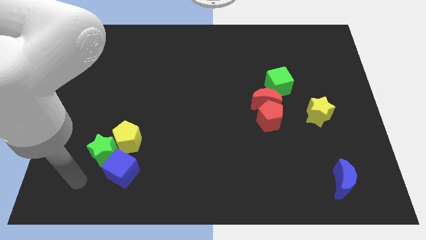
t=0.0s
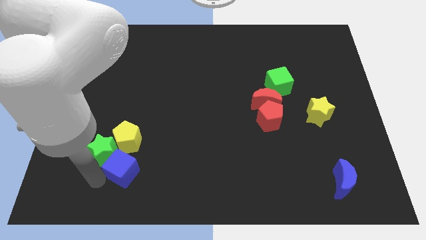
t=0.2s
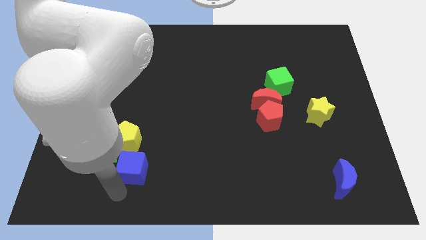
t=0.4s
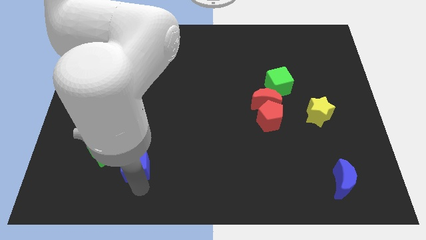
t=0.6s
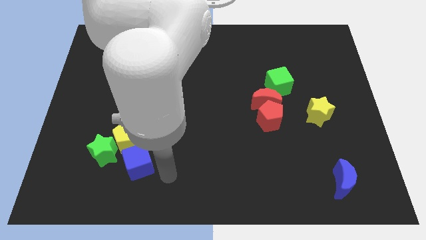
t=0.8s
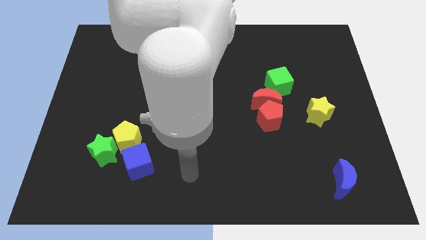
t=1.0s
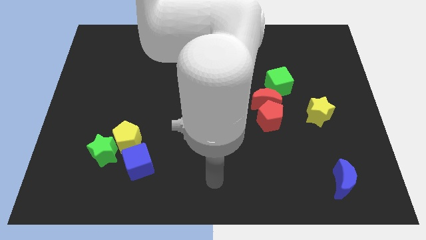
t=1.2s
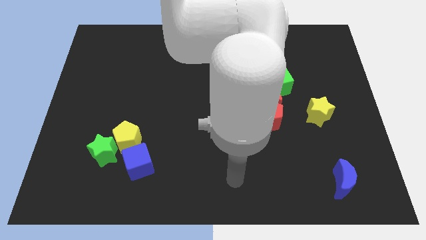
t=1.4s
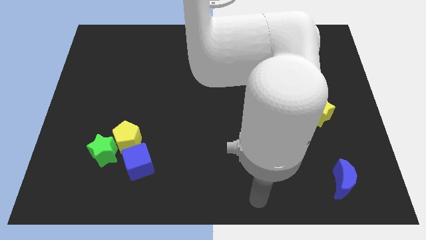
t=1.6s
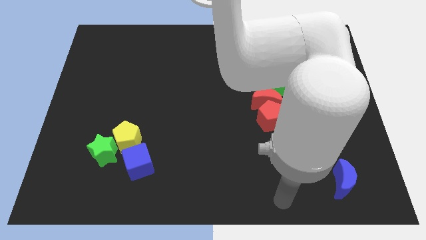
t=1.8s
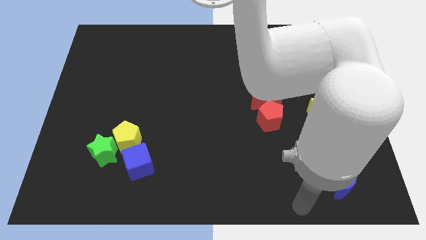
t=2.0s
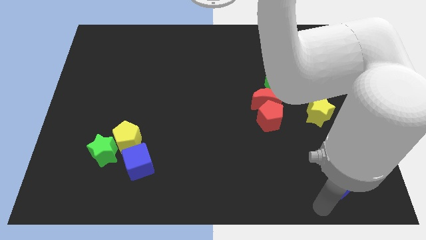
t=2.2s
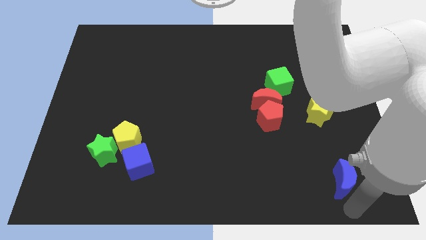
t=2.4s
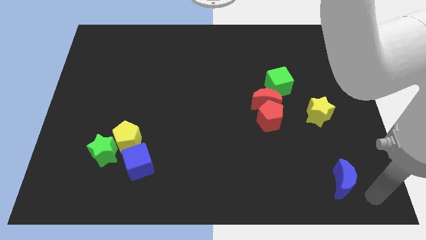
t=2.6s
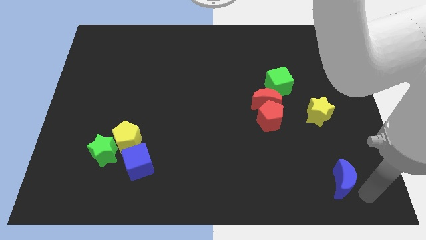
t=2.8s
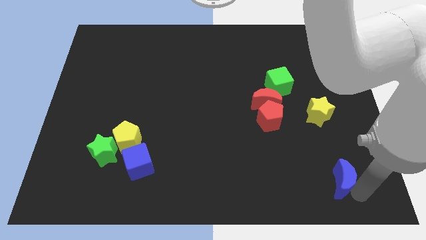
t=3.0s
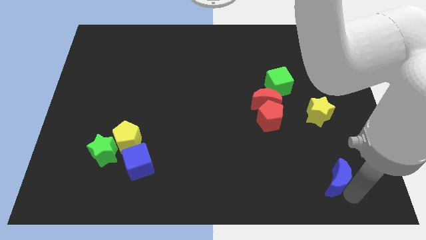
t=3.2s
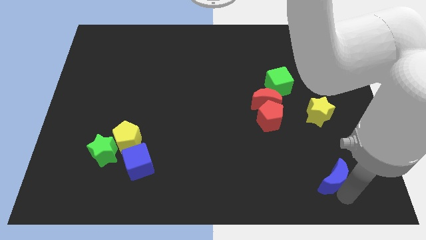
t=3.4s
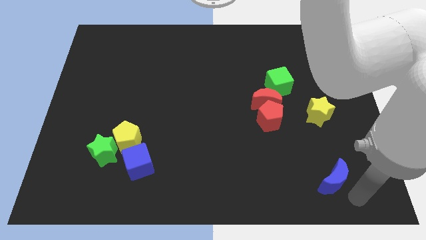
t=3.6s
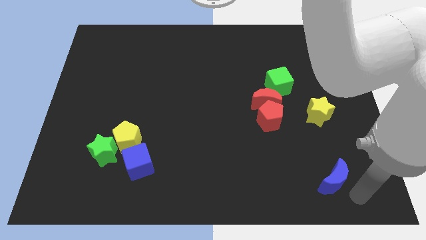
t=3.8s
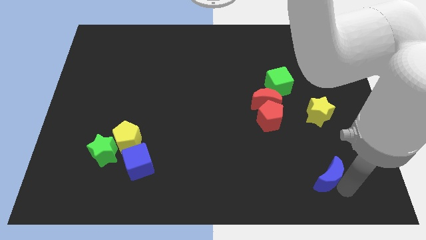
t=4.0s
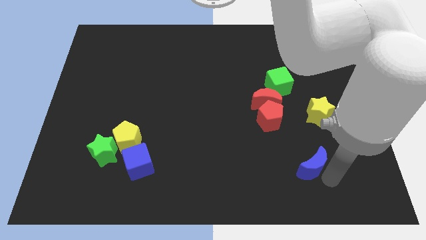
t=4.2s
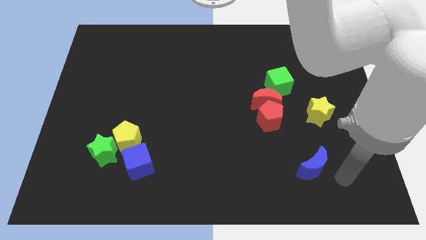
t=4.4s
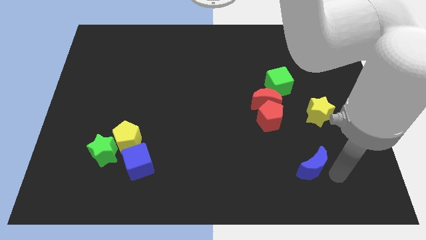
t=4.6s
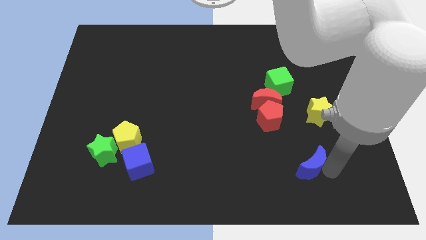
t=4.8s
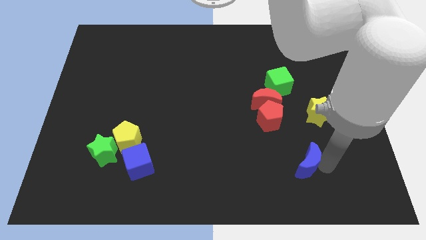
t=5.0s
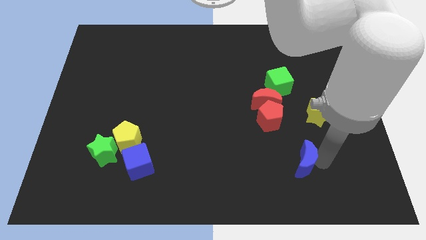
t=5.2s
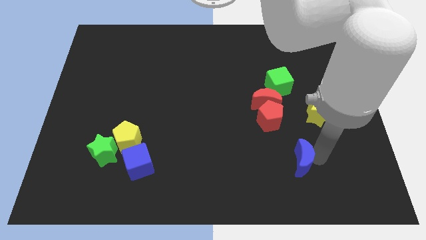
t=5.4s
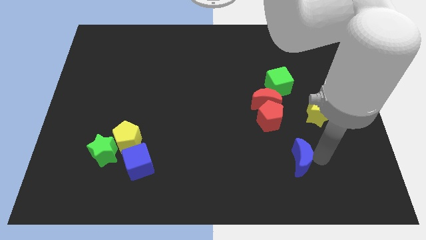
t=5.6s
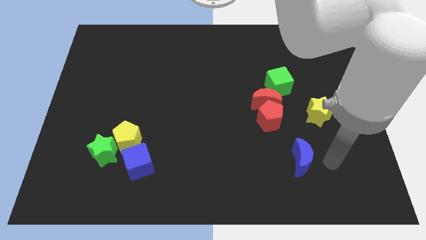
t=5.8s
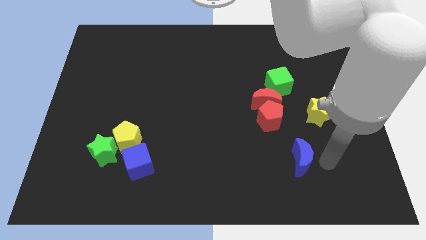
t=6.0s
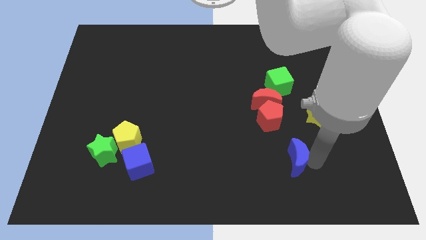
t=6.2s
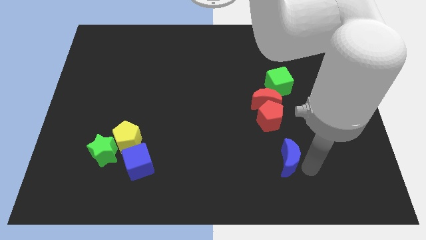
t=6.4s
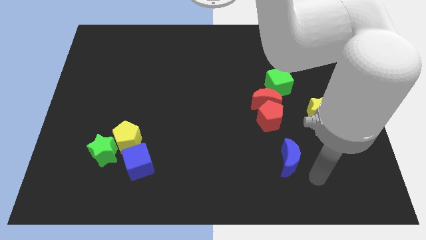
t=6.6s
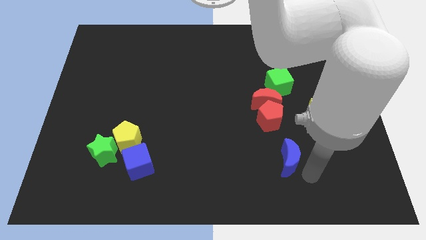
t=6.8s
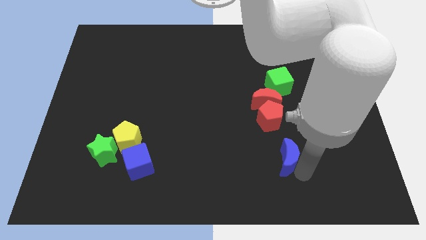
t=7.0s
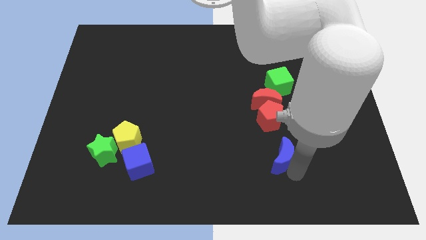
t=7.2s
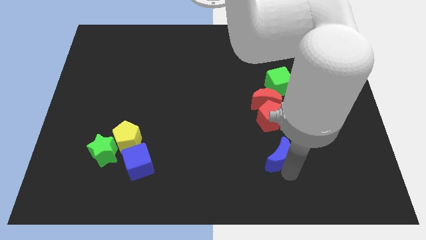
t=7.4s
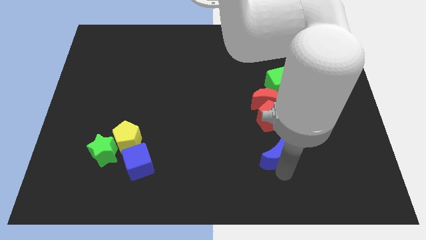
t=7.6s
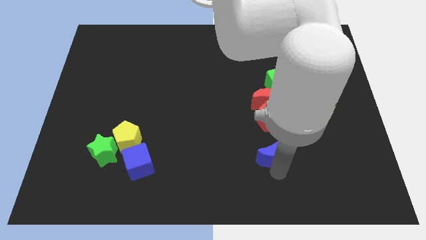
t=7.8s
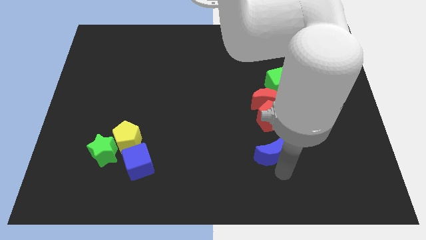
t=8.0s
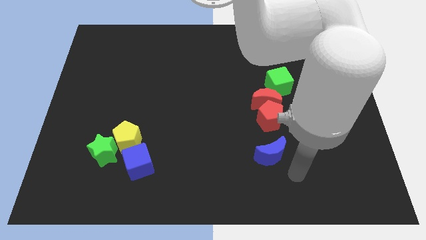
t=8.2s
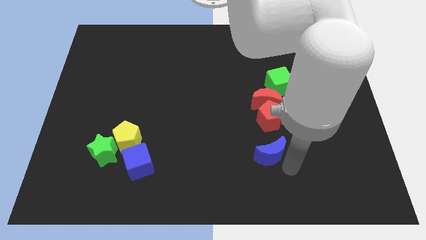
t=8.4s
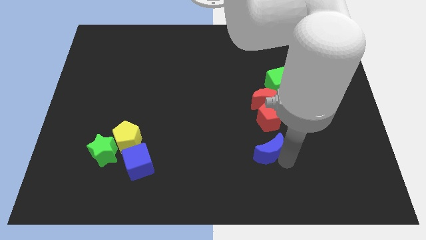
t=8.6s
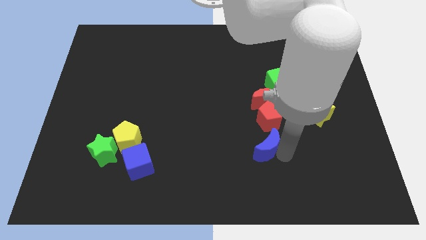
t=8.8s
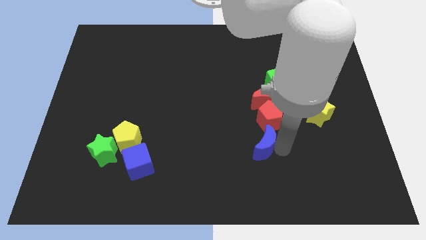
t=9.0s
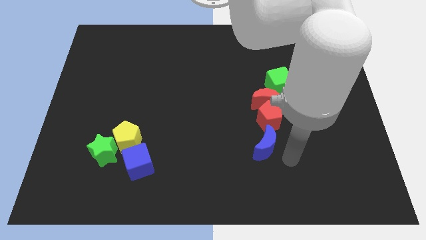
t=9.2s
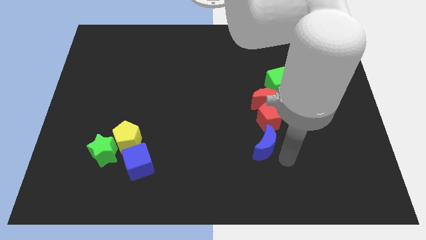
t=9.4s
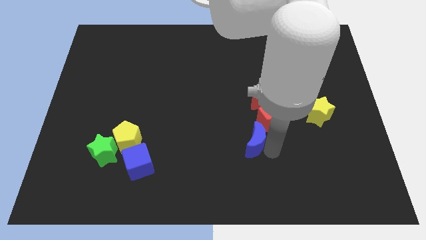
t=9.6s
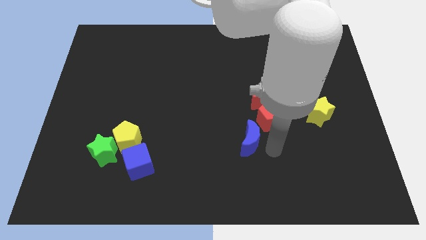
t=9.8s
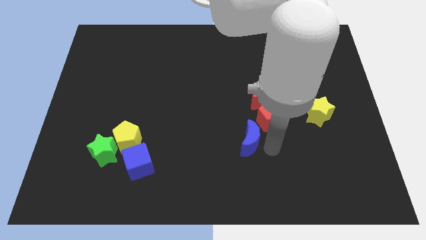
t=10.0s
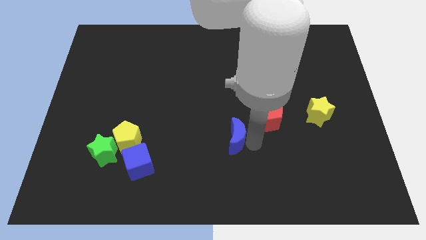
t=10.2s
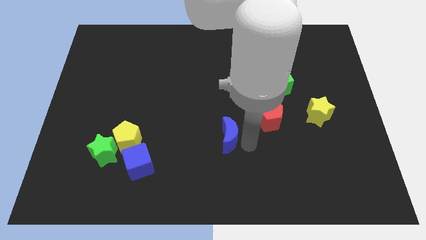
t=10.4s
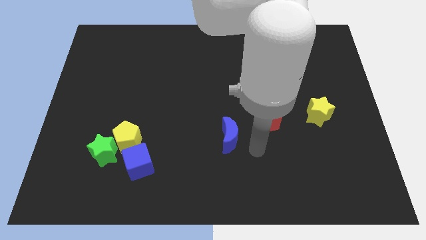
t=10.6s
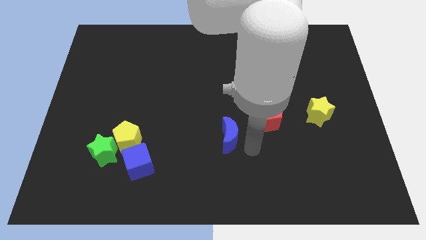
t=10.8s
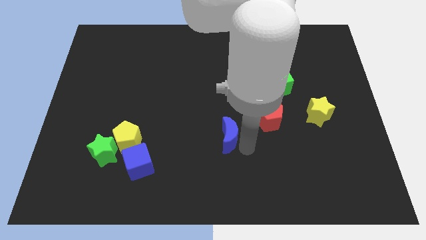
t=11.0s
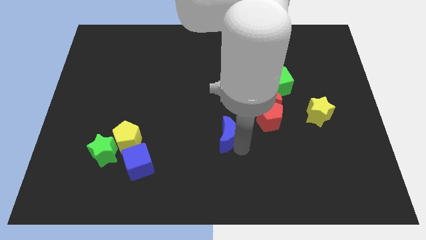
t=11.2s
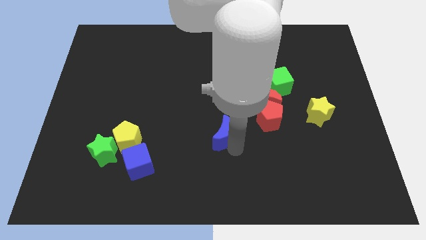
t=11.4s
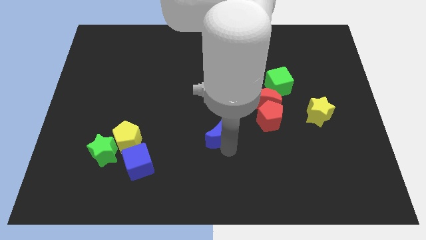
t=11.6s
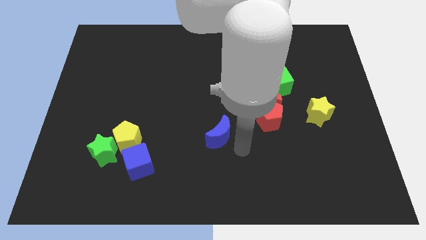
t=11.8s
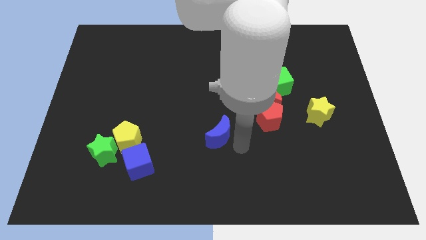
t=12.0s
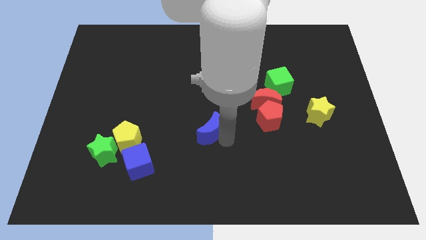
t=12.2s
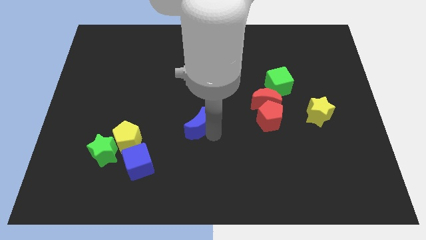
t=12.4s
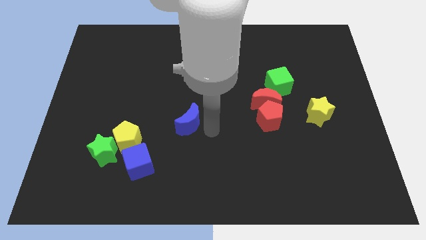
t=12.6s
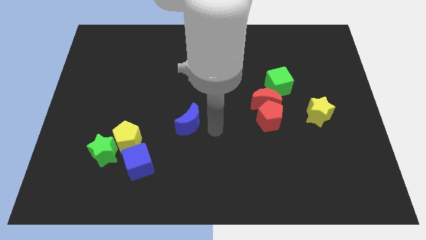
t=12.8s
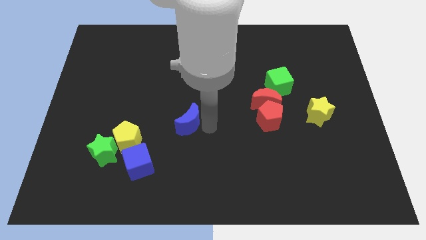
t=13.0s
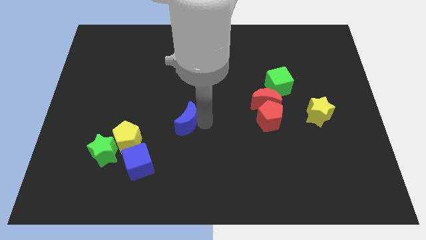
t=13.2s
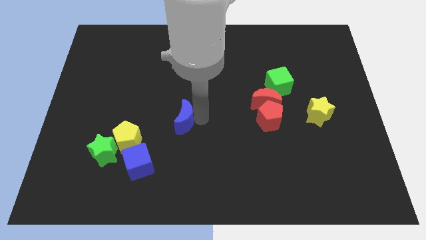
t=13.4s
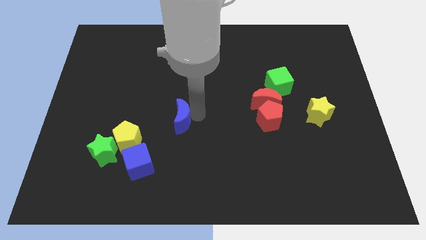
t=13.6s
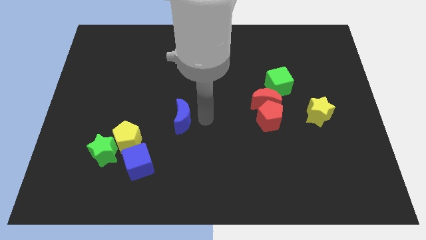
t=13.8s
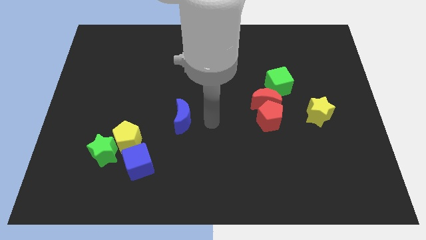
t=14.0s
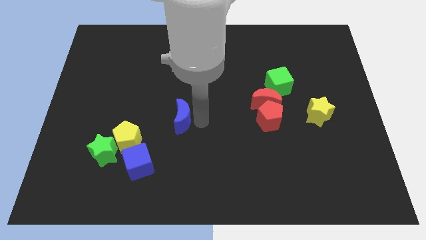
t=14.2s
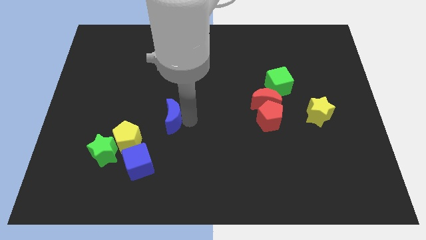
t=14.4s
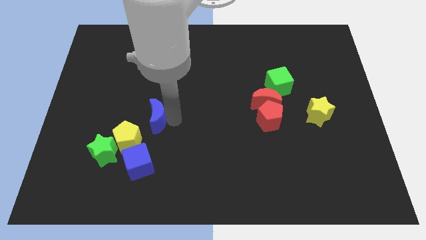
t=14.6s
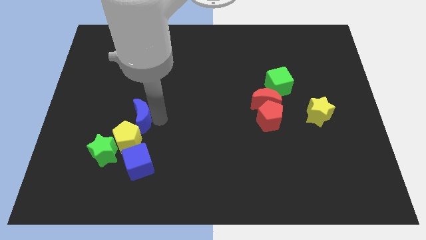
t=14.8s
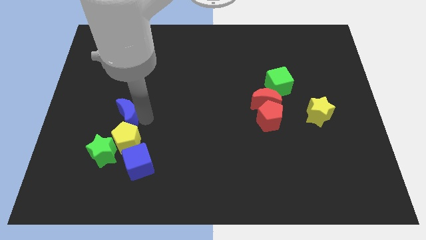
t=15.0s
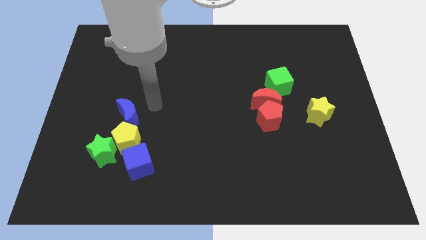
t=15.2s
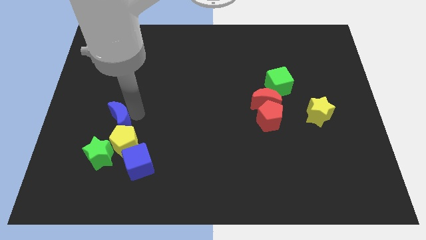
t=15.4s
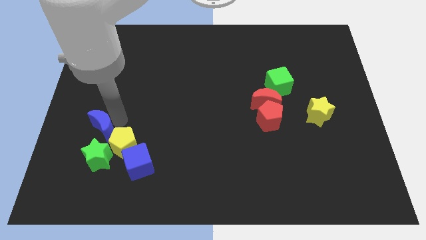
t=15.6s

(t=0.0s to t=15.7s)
move the blue moon just left of the yellow pentagon

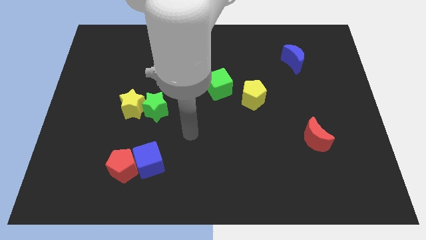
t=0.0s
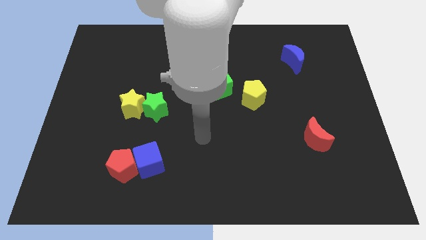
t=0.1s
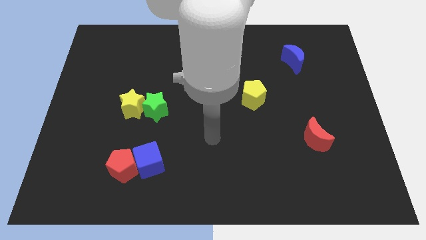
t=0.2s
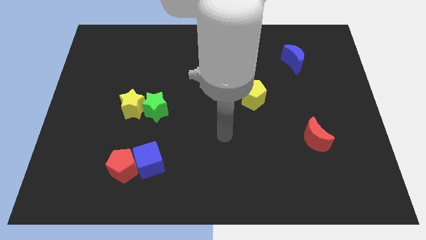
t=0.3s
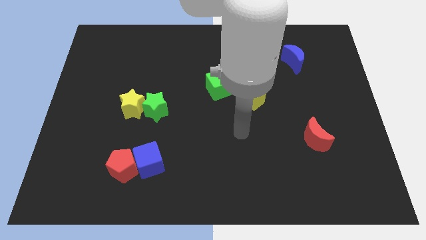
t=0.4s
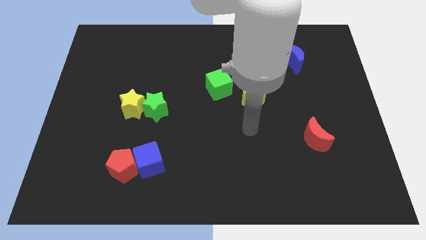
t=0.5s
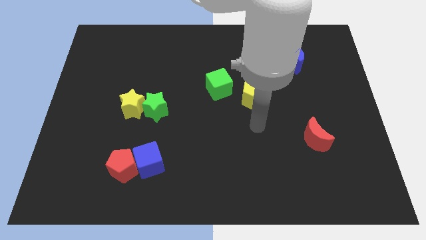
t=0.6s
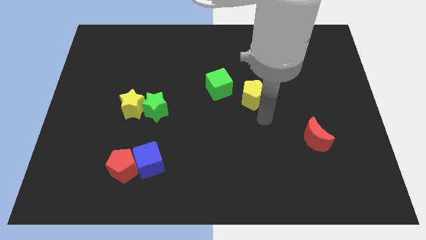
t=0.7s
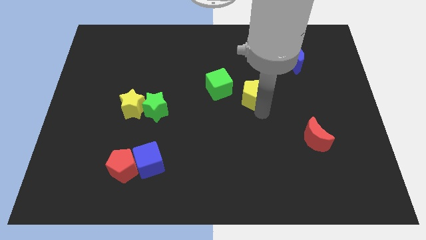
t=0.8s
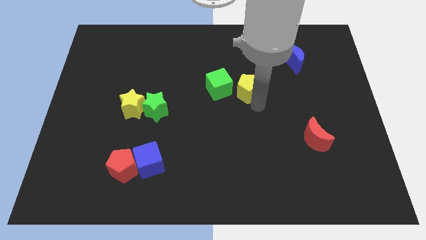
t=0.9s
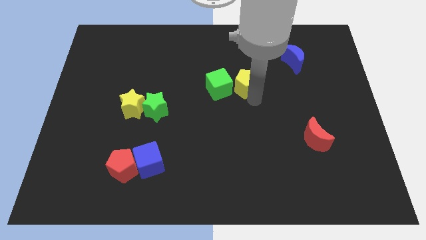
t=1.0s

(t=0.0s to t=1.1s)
put the yellow pentagon to the top right of the green cube
